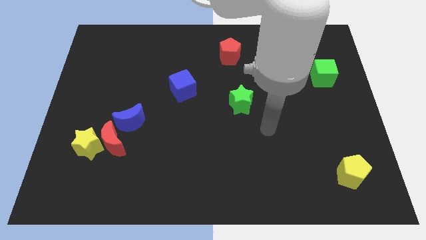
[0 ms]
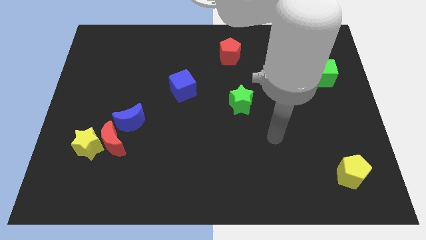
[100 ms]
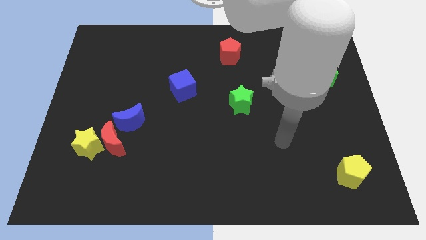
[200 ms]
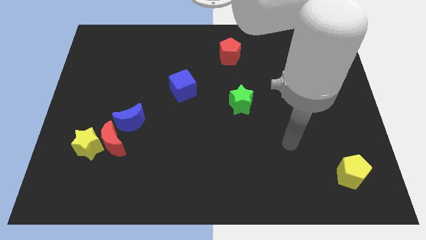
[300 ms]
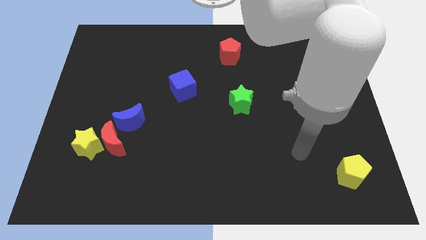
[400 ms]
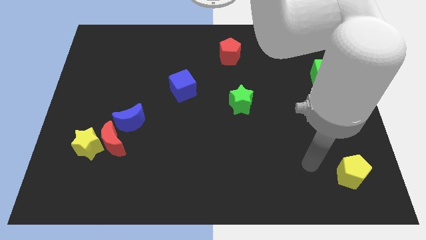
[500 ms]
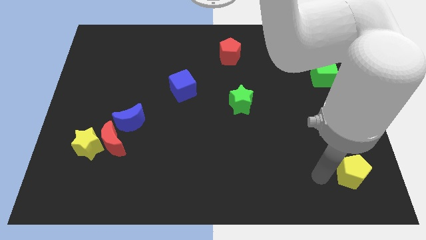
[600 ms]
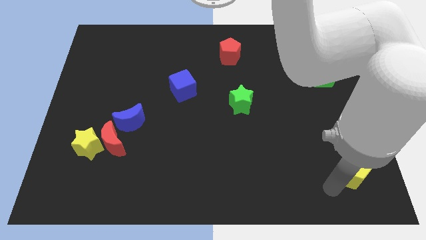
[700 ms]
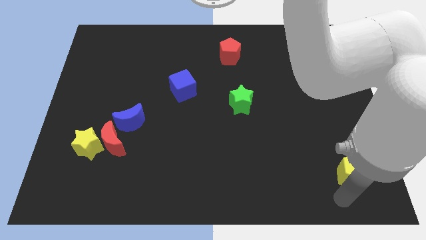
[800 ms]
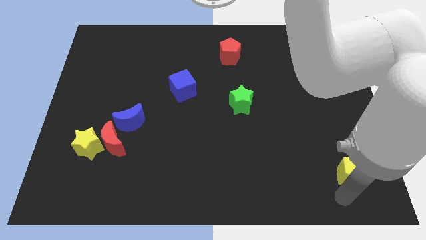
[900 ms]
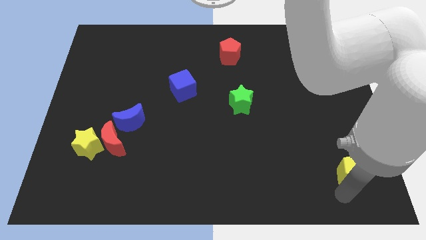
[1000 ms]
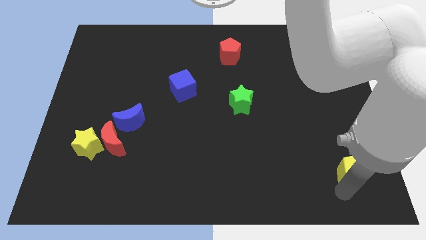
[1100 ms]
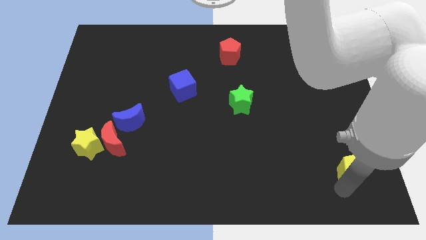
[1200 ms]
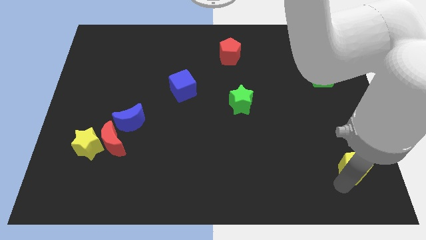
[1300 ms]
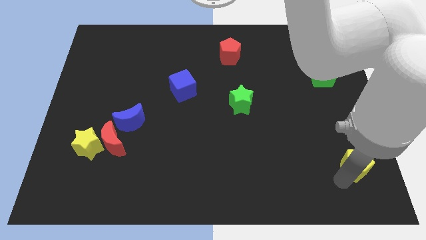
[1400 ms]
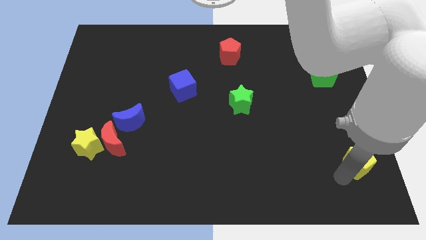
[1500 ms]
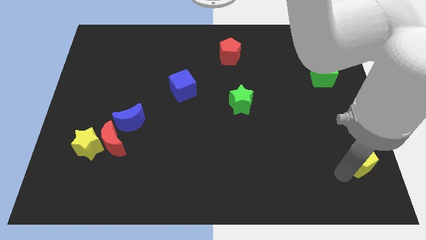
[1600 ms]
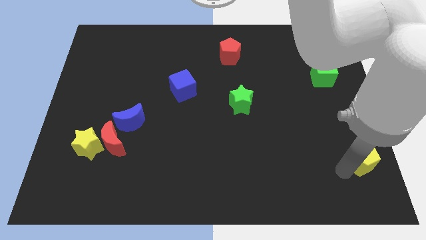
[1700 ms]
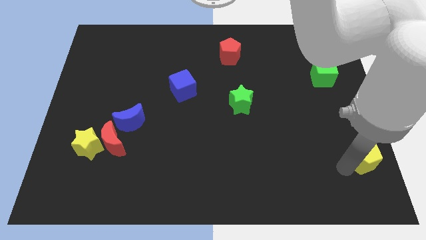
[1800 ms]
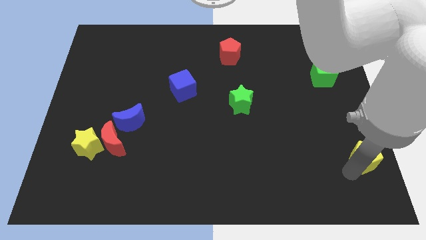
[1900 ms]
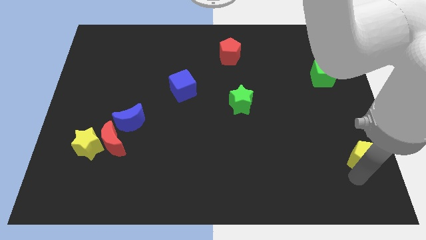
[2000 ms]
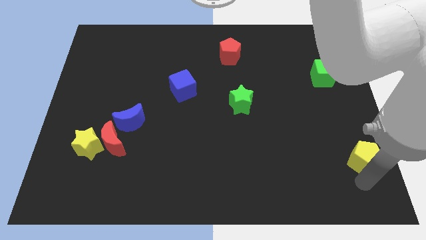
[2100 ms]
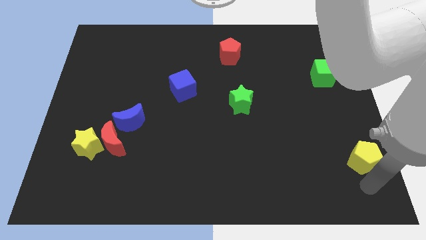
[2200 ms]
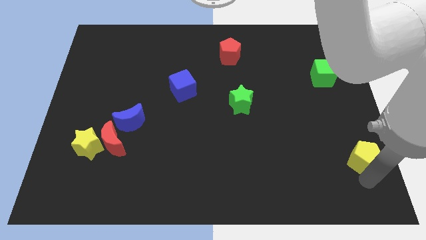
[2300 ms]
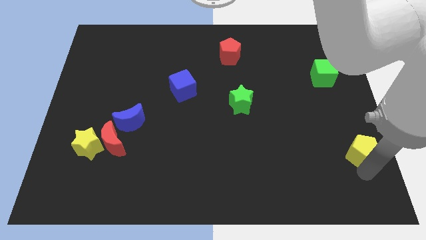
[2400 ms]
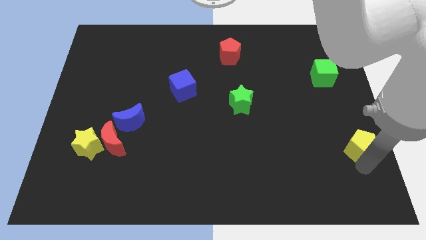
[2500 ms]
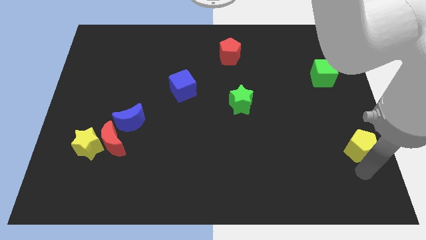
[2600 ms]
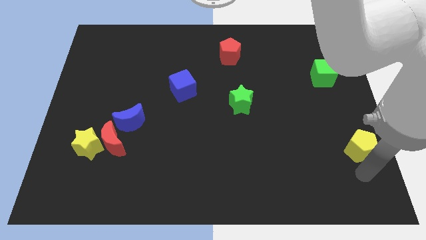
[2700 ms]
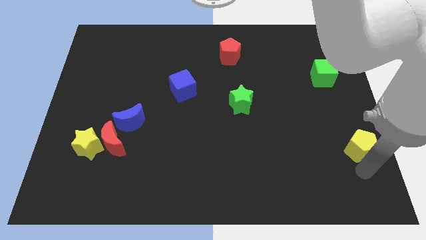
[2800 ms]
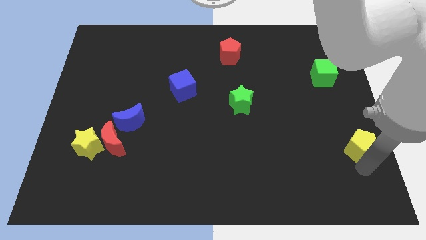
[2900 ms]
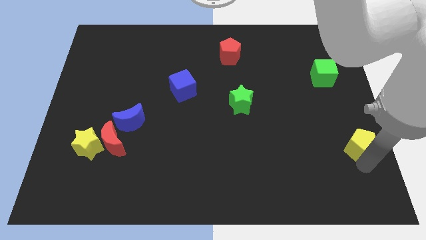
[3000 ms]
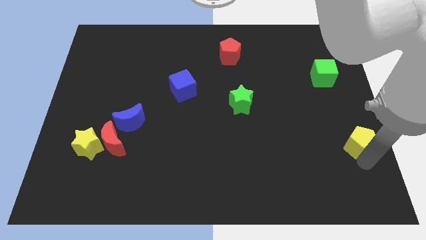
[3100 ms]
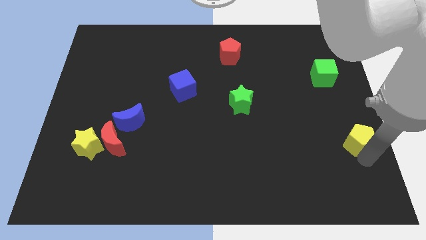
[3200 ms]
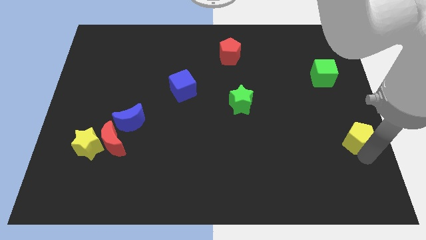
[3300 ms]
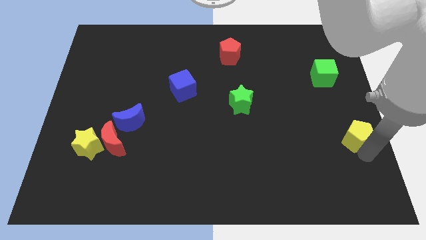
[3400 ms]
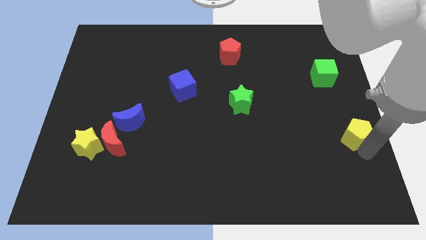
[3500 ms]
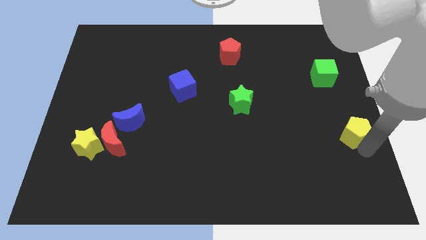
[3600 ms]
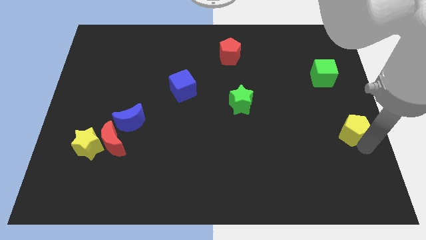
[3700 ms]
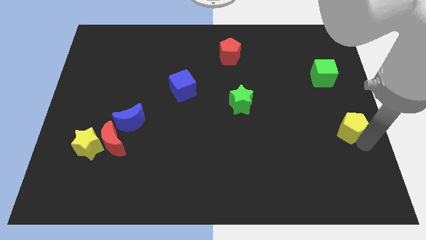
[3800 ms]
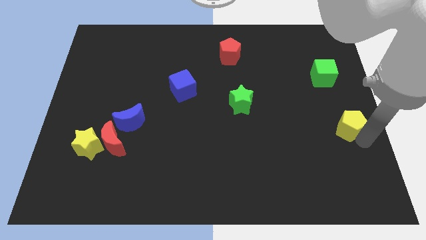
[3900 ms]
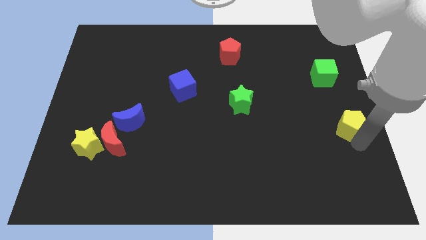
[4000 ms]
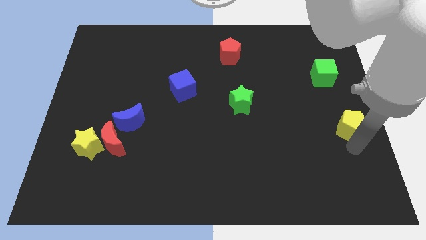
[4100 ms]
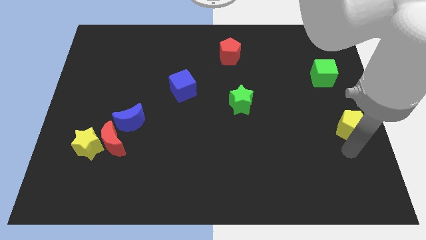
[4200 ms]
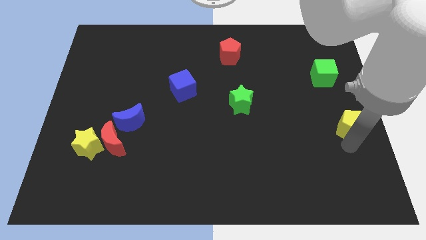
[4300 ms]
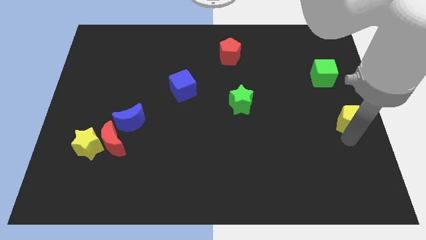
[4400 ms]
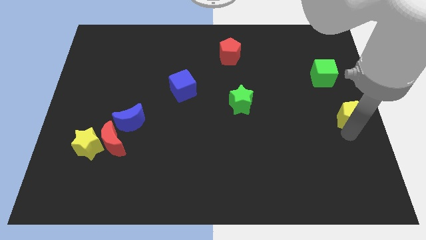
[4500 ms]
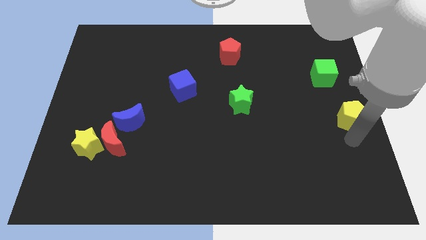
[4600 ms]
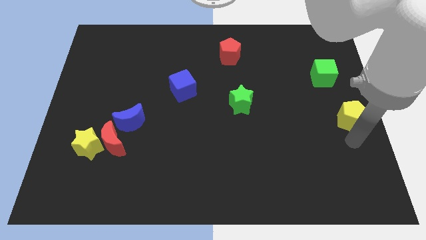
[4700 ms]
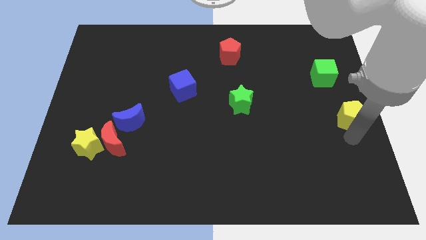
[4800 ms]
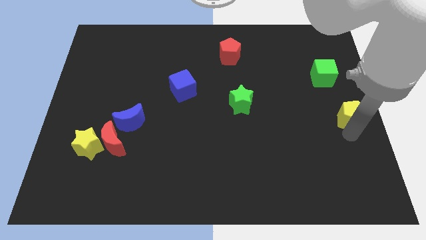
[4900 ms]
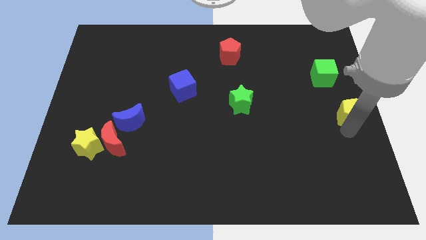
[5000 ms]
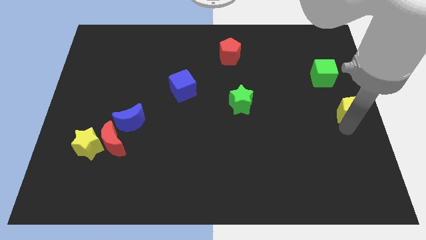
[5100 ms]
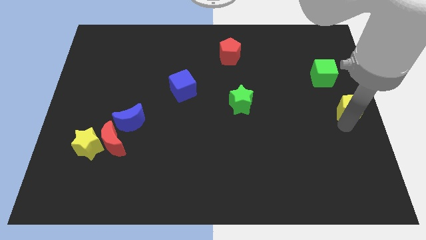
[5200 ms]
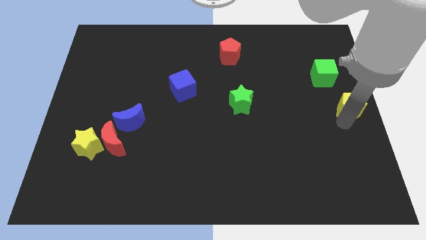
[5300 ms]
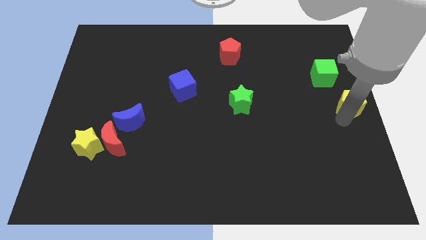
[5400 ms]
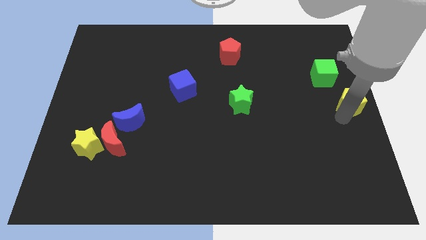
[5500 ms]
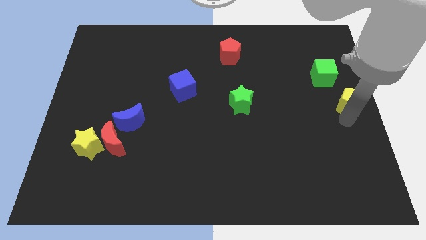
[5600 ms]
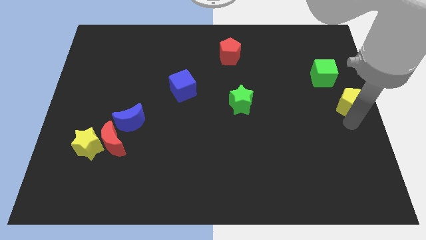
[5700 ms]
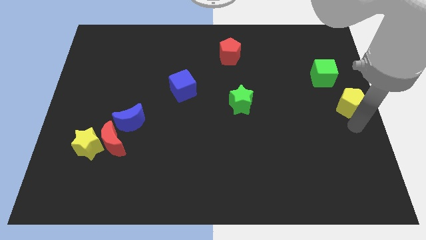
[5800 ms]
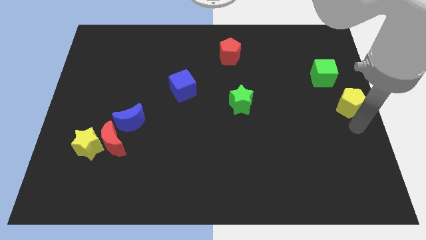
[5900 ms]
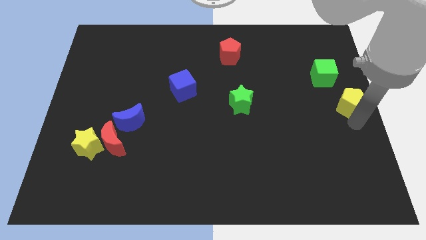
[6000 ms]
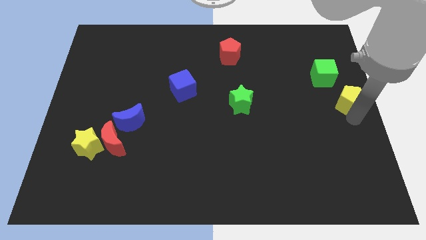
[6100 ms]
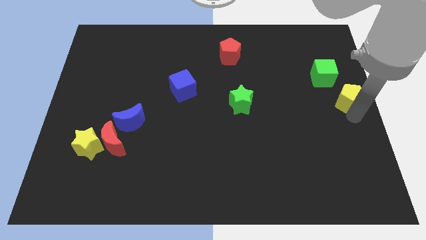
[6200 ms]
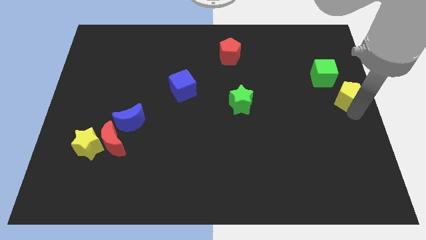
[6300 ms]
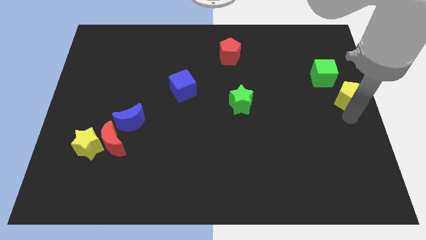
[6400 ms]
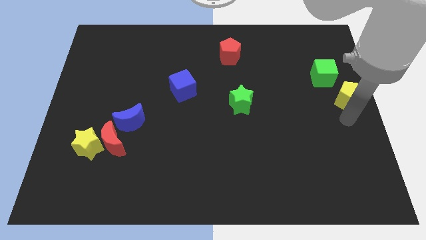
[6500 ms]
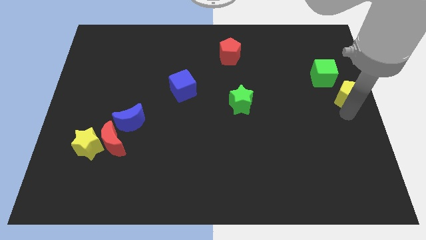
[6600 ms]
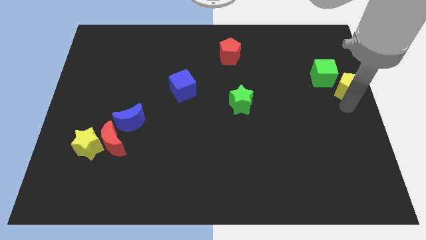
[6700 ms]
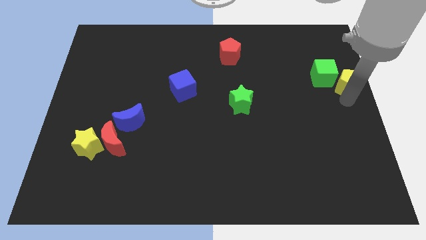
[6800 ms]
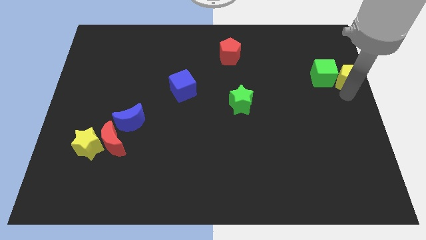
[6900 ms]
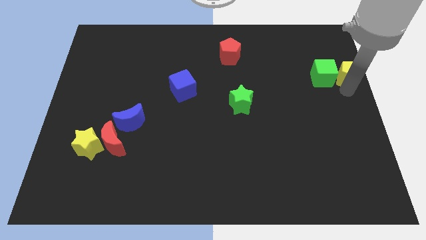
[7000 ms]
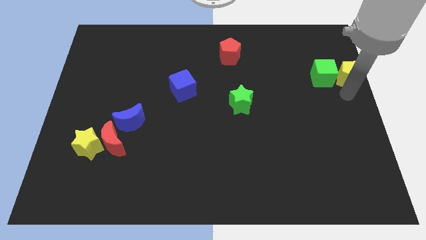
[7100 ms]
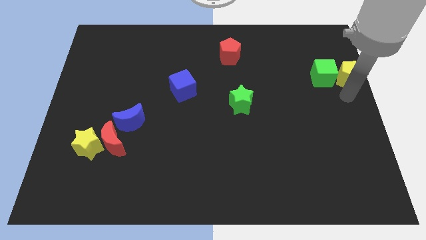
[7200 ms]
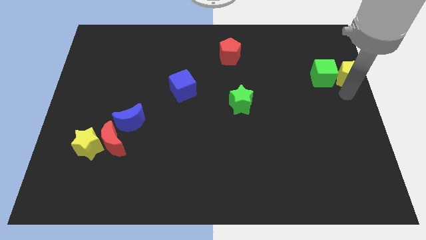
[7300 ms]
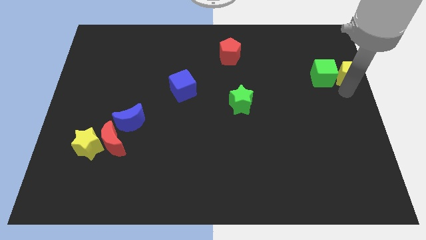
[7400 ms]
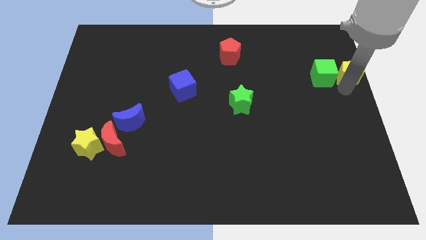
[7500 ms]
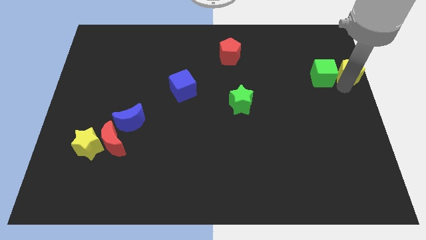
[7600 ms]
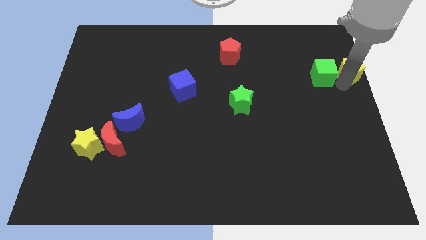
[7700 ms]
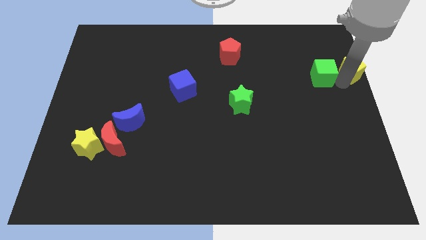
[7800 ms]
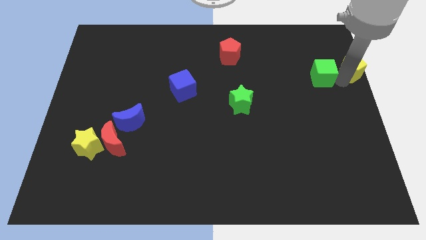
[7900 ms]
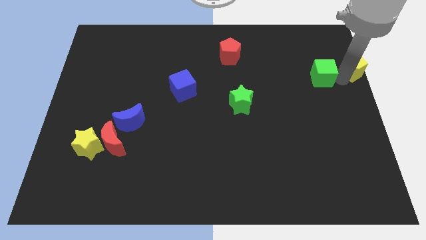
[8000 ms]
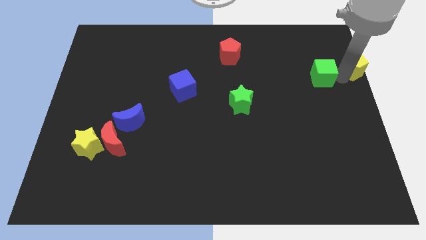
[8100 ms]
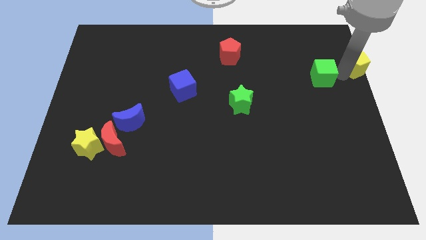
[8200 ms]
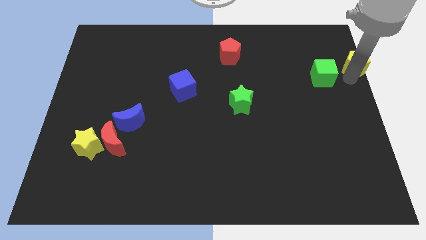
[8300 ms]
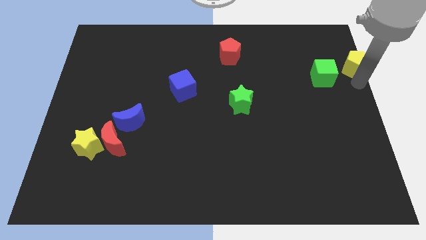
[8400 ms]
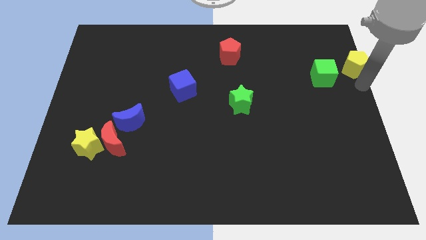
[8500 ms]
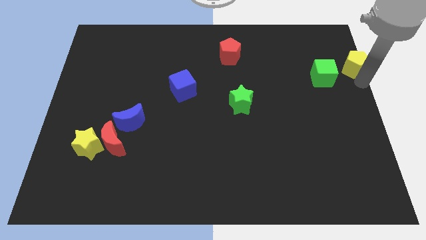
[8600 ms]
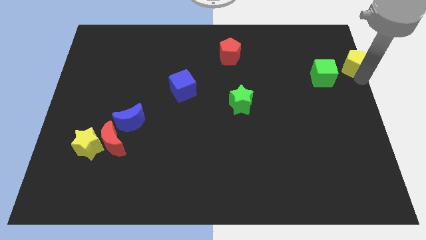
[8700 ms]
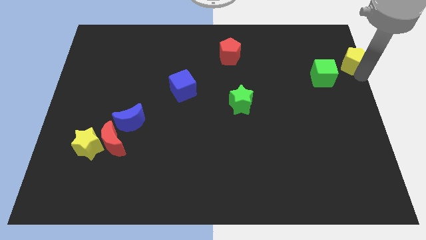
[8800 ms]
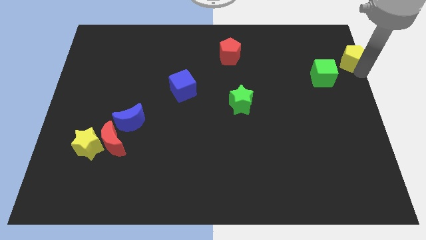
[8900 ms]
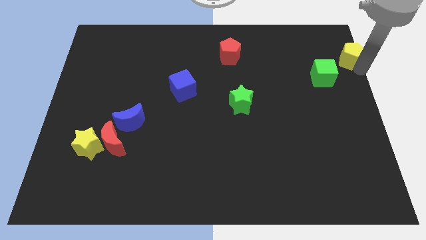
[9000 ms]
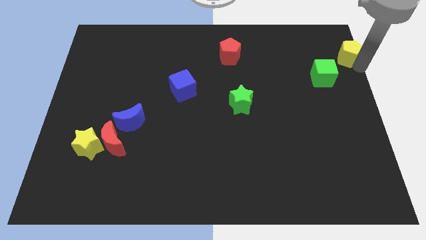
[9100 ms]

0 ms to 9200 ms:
slide the yellow pentagon to the upper right corner
